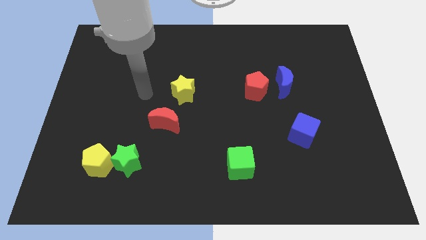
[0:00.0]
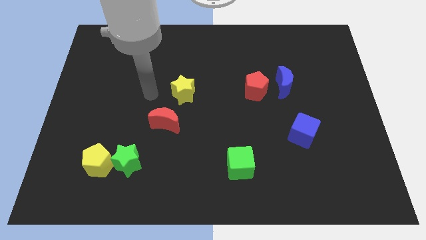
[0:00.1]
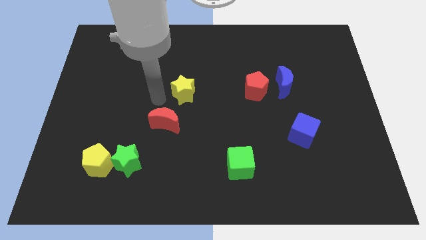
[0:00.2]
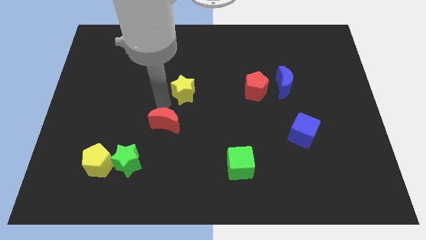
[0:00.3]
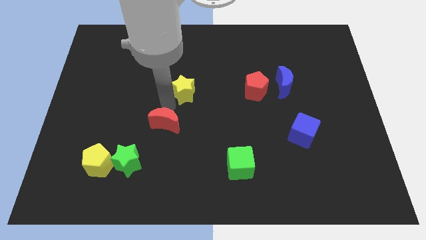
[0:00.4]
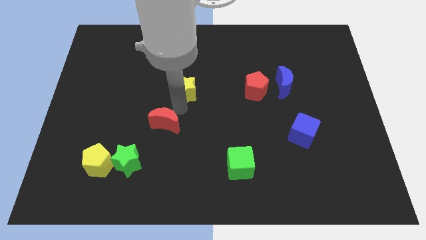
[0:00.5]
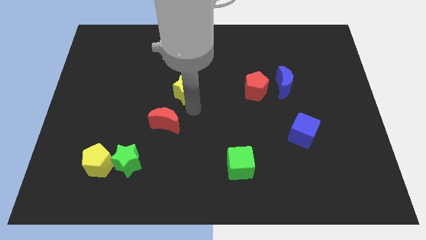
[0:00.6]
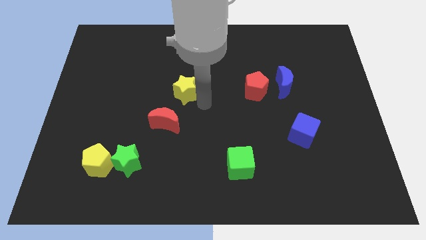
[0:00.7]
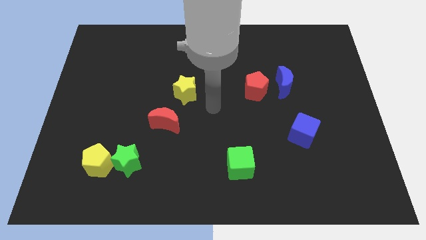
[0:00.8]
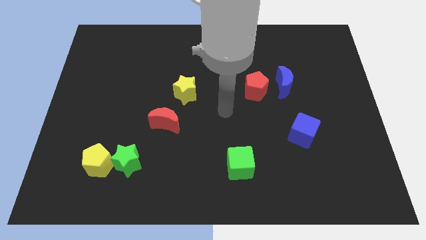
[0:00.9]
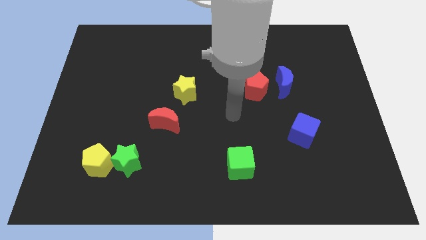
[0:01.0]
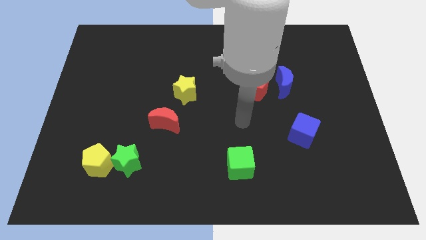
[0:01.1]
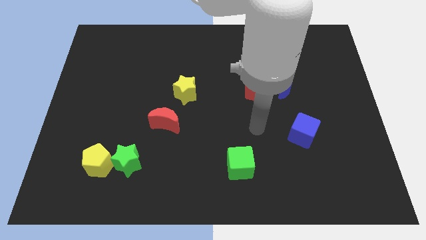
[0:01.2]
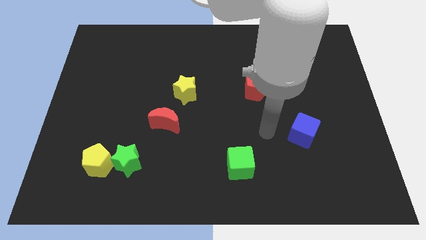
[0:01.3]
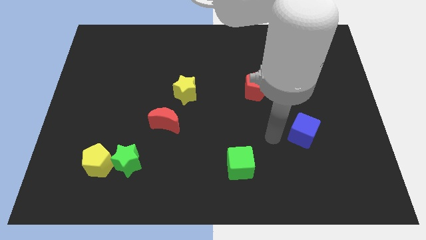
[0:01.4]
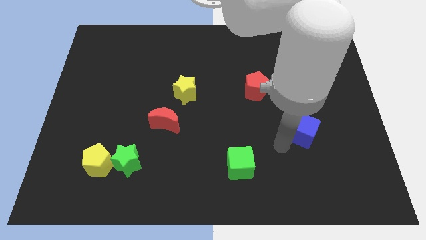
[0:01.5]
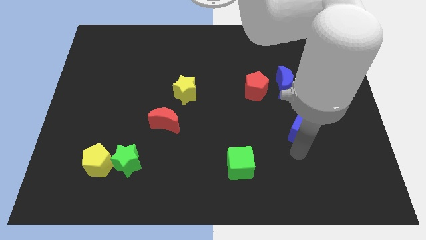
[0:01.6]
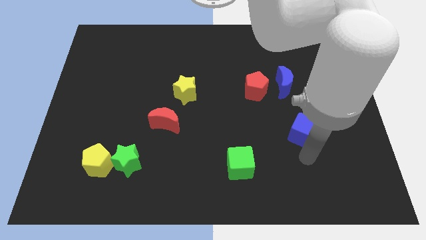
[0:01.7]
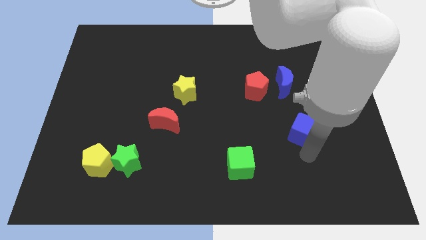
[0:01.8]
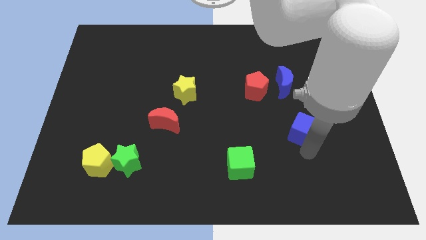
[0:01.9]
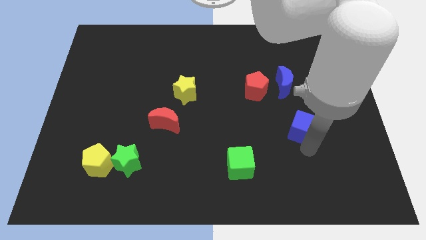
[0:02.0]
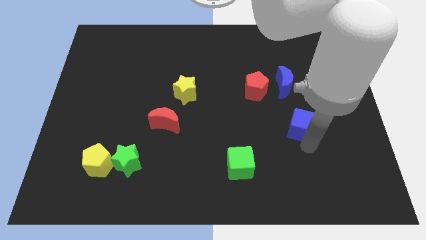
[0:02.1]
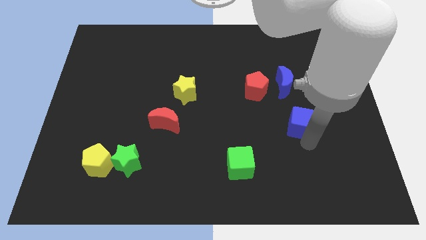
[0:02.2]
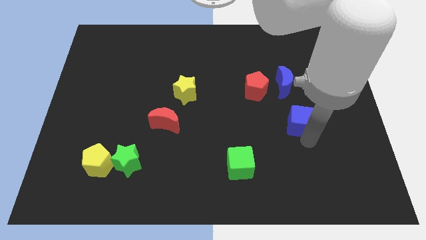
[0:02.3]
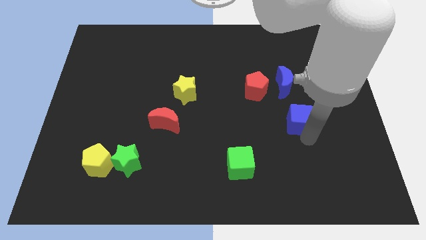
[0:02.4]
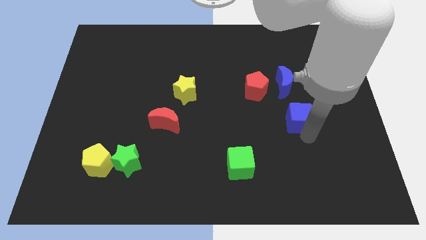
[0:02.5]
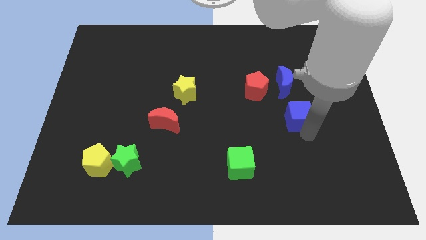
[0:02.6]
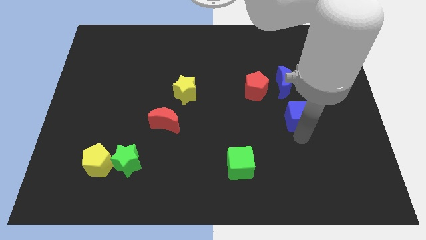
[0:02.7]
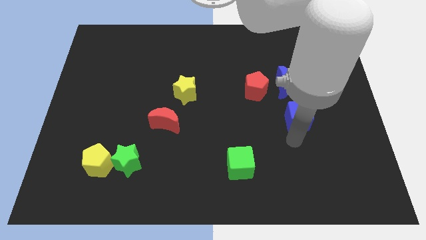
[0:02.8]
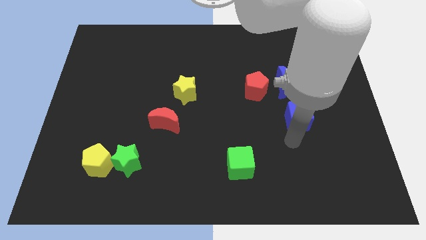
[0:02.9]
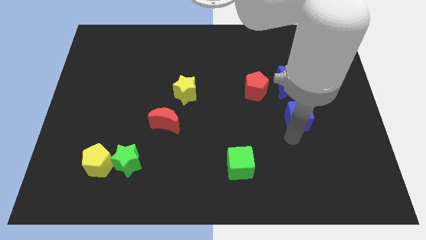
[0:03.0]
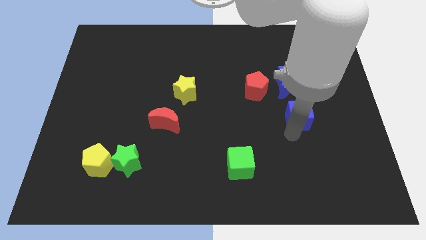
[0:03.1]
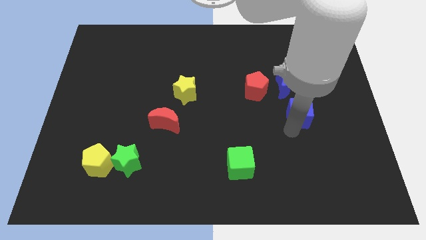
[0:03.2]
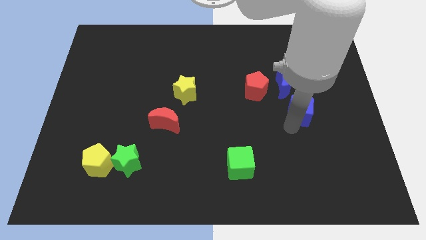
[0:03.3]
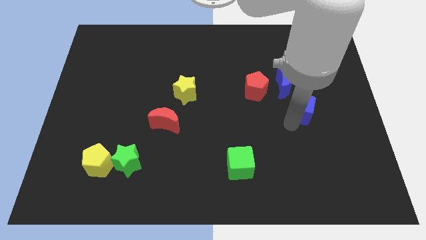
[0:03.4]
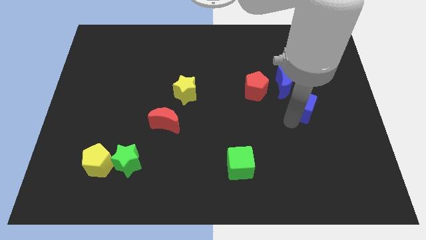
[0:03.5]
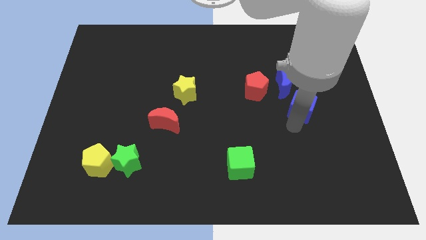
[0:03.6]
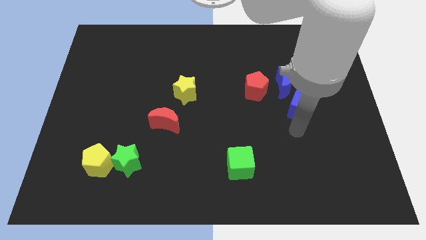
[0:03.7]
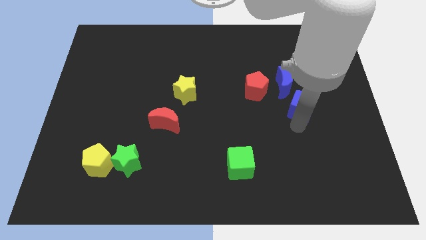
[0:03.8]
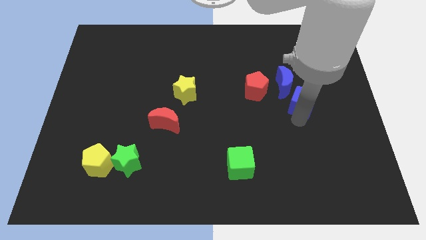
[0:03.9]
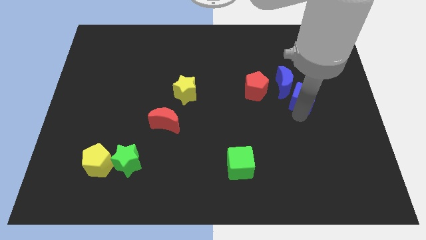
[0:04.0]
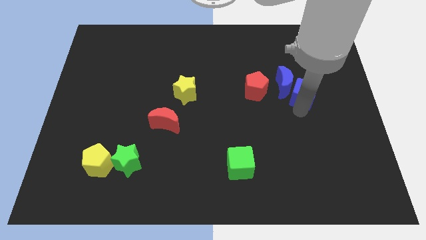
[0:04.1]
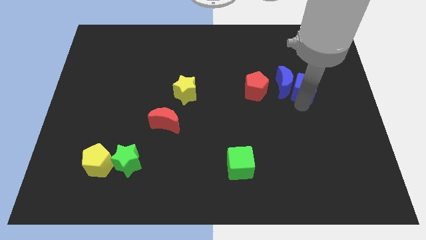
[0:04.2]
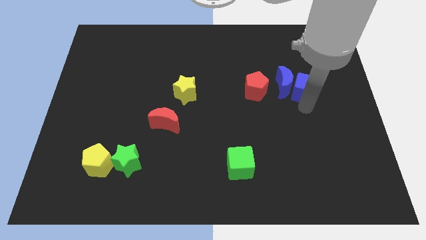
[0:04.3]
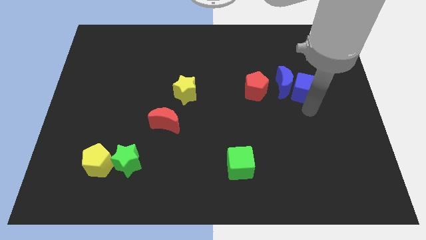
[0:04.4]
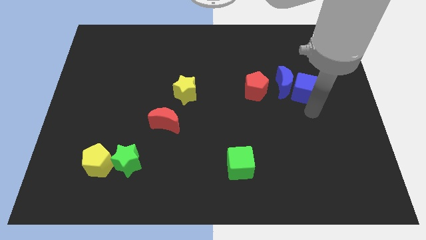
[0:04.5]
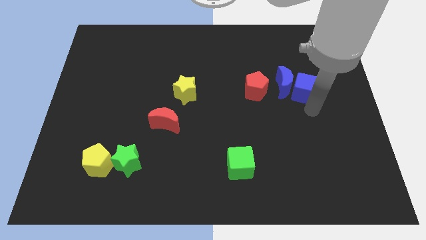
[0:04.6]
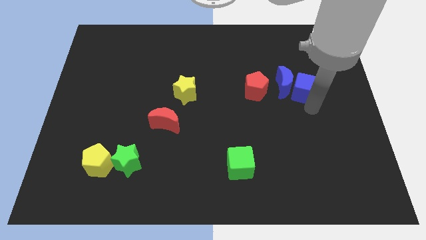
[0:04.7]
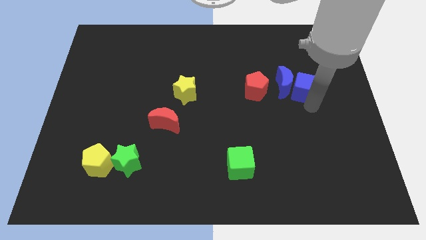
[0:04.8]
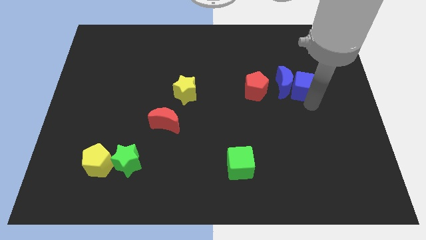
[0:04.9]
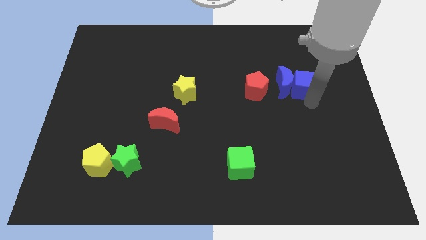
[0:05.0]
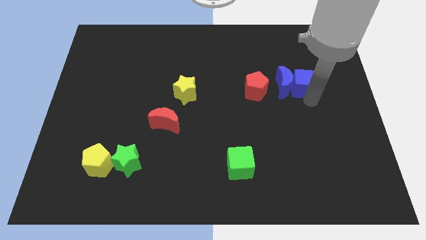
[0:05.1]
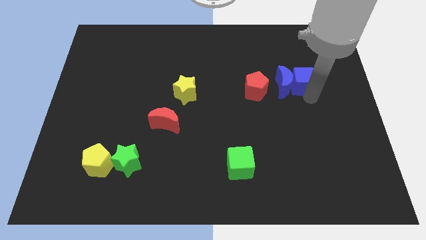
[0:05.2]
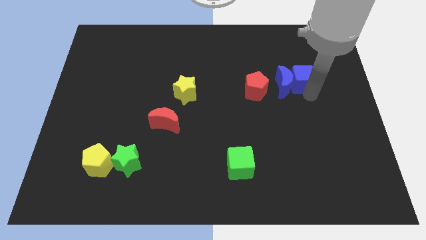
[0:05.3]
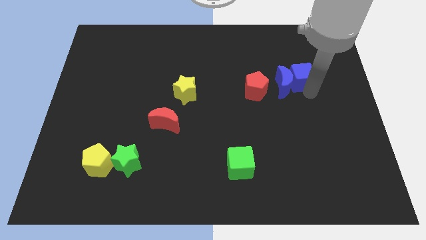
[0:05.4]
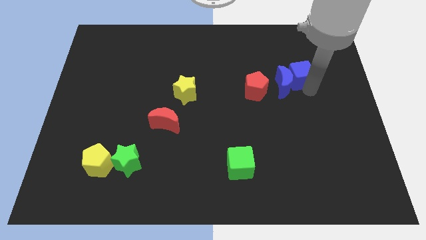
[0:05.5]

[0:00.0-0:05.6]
slide the blue cube to the top side of the blue moon

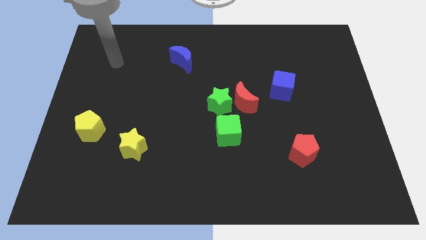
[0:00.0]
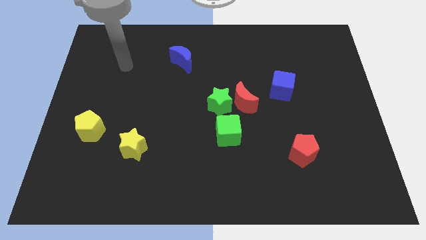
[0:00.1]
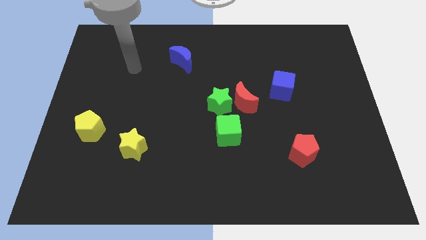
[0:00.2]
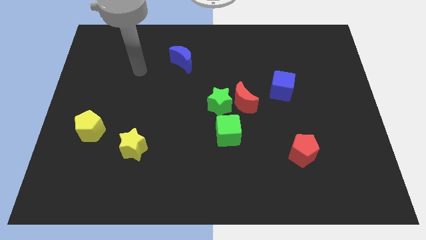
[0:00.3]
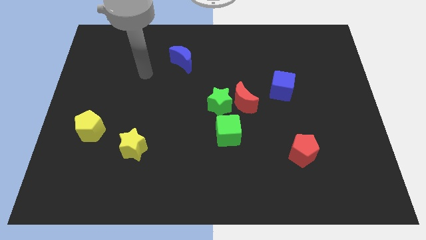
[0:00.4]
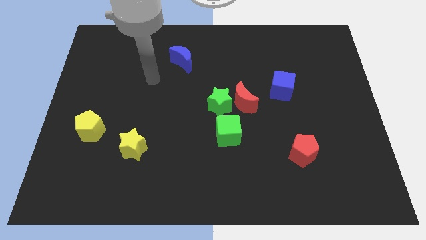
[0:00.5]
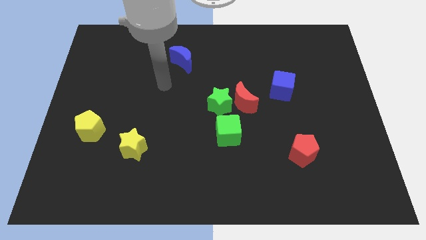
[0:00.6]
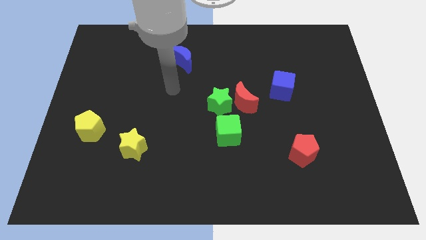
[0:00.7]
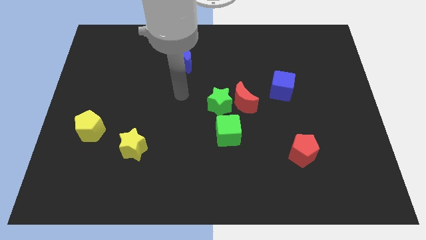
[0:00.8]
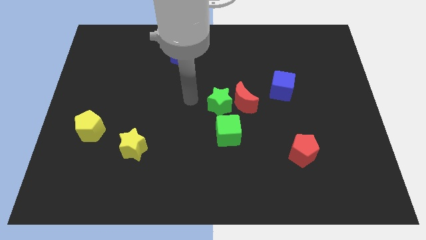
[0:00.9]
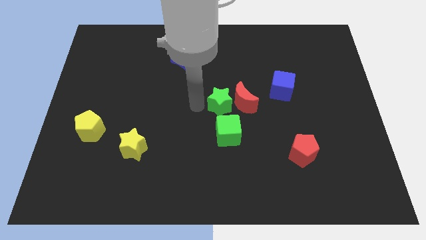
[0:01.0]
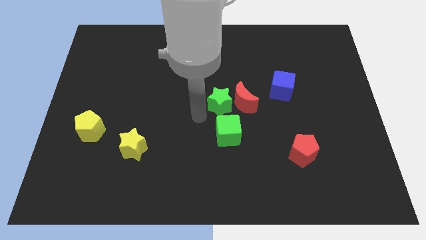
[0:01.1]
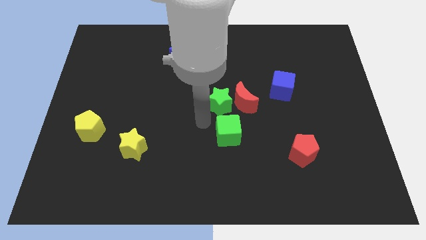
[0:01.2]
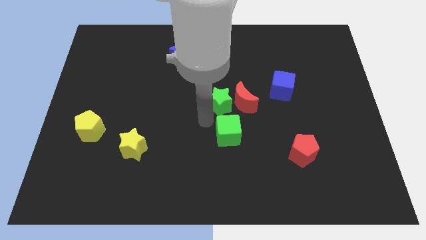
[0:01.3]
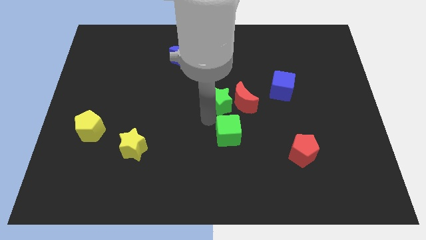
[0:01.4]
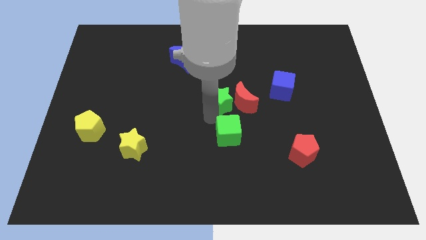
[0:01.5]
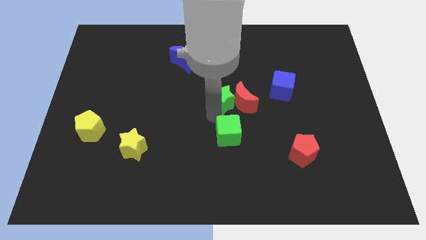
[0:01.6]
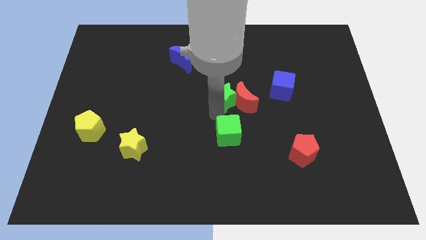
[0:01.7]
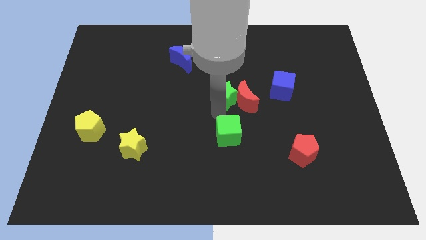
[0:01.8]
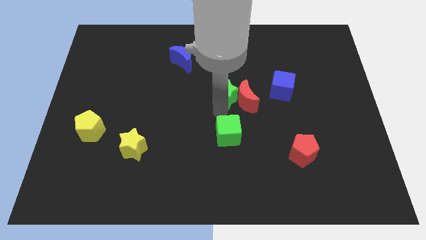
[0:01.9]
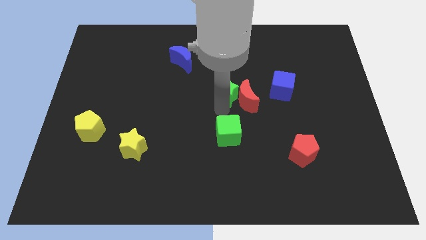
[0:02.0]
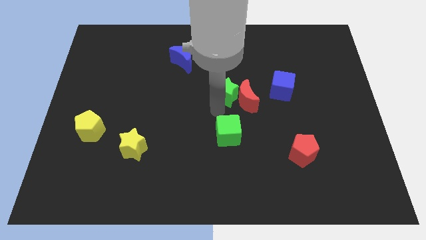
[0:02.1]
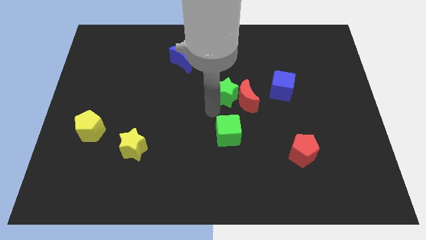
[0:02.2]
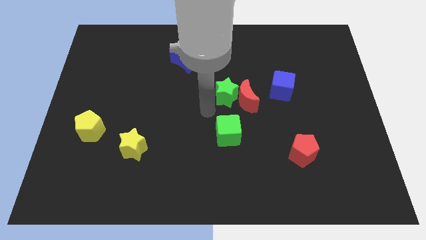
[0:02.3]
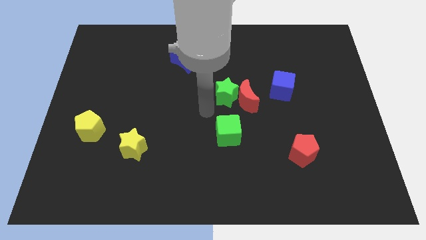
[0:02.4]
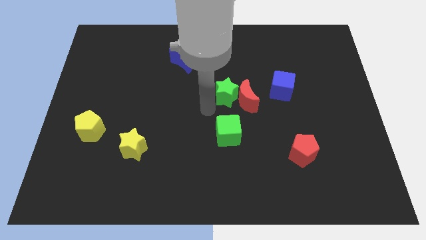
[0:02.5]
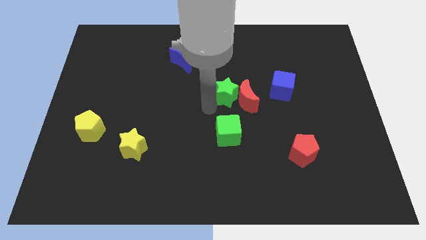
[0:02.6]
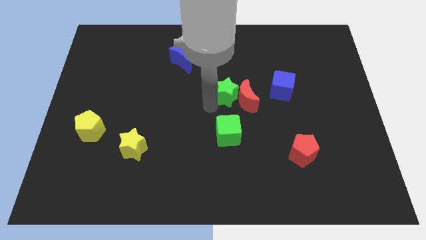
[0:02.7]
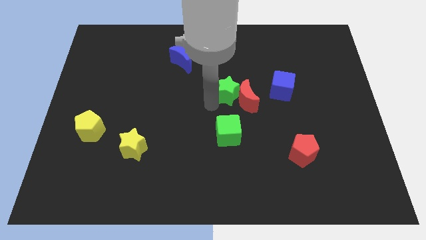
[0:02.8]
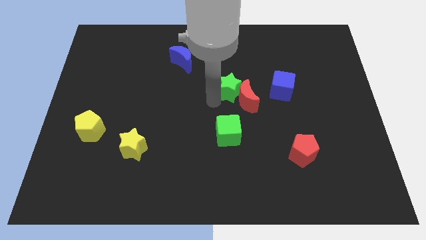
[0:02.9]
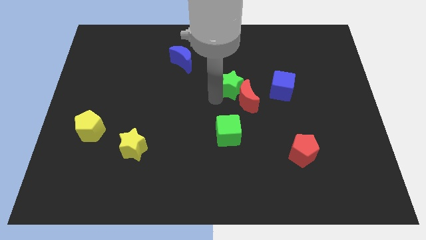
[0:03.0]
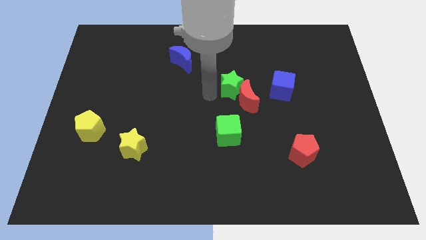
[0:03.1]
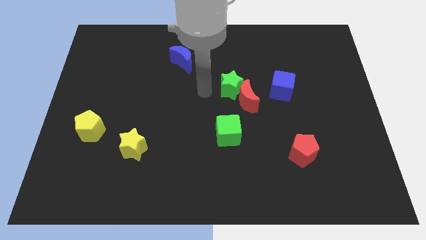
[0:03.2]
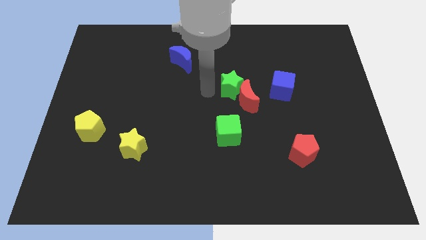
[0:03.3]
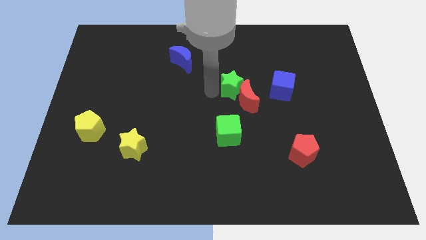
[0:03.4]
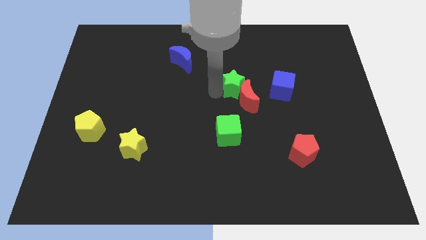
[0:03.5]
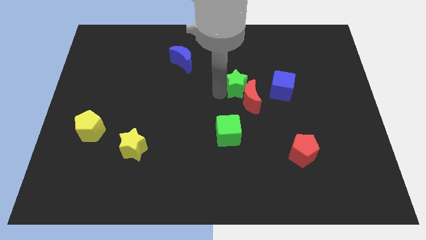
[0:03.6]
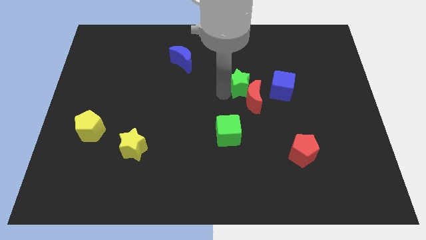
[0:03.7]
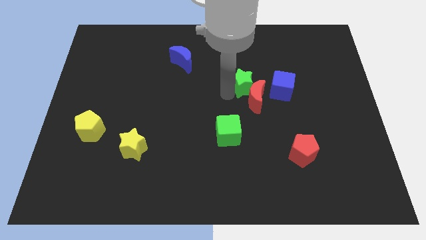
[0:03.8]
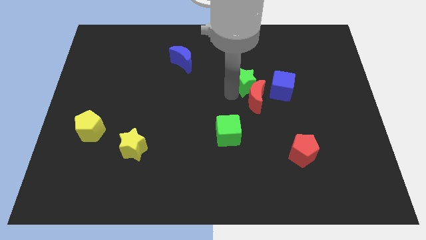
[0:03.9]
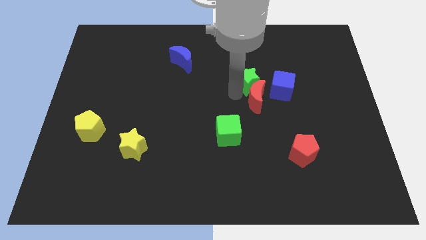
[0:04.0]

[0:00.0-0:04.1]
slide the green star diagonally up and to the right of the red moon
